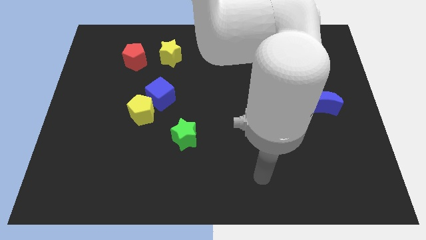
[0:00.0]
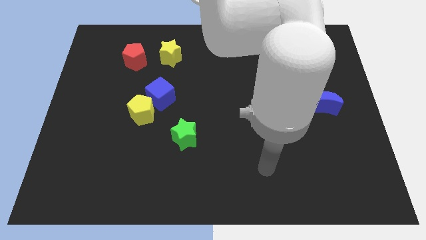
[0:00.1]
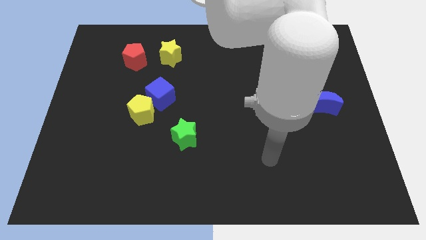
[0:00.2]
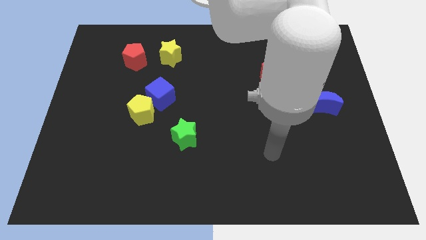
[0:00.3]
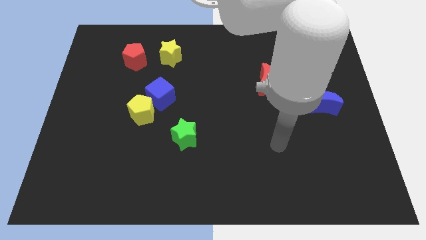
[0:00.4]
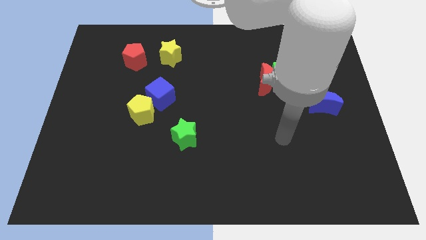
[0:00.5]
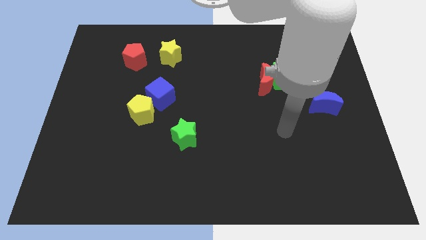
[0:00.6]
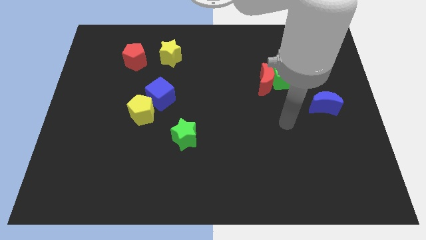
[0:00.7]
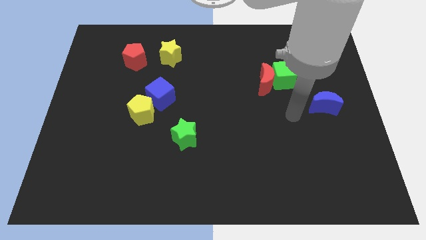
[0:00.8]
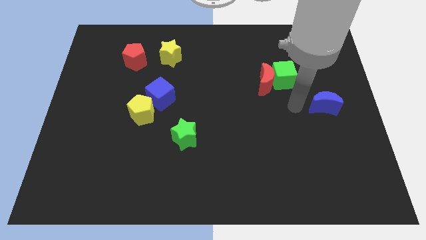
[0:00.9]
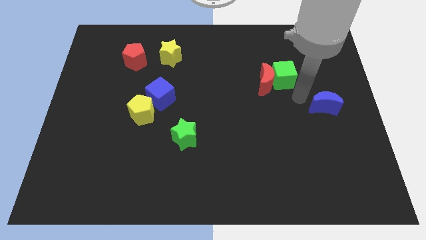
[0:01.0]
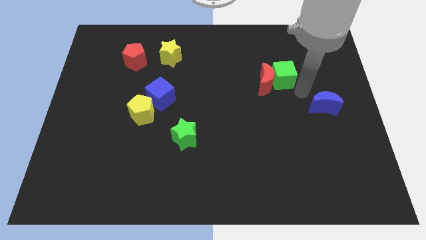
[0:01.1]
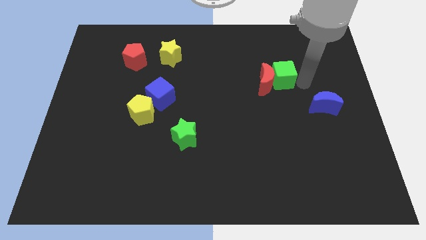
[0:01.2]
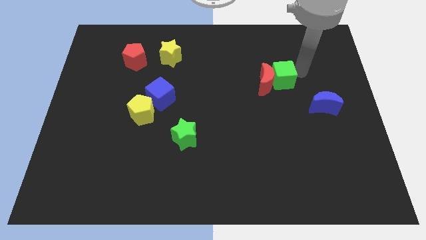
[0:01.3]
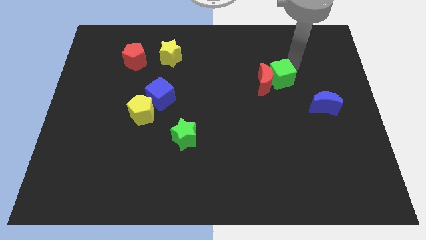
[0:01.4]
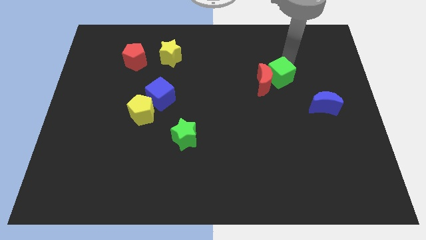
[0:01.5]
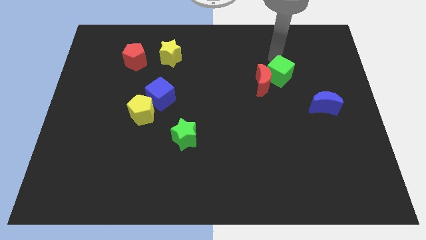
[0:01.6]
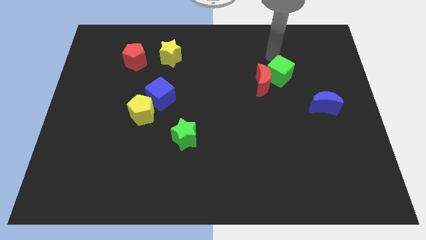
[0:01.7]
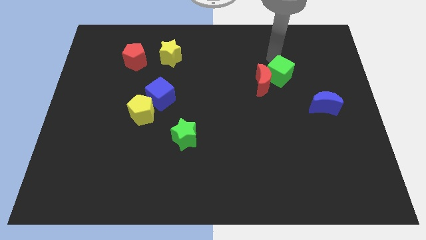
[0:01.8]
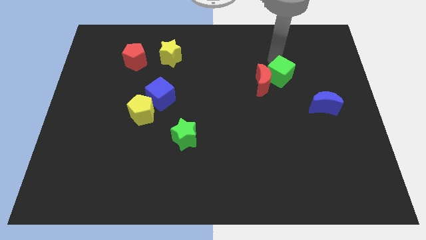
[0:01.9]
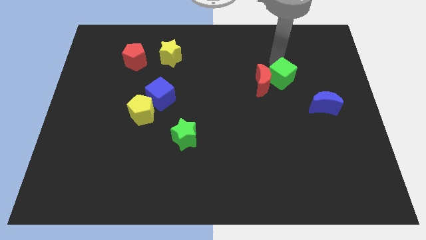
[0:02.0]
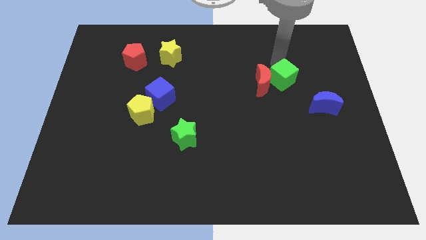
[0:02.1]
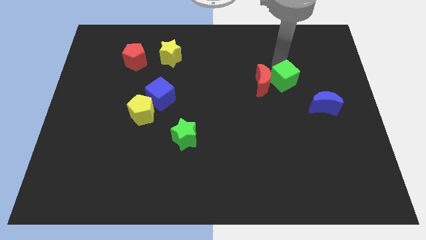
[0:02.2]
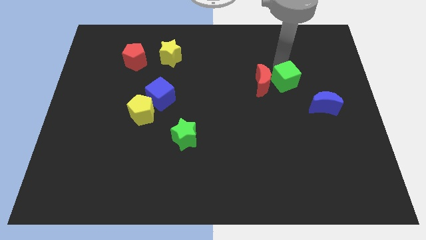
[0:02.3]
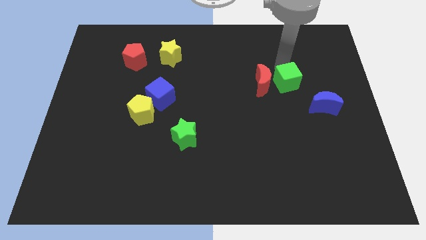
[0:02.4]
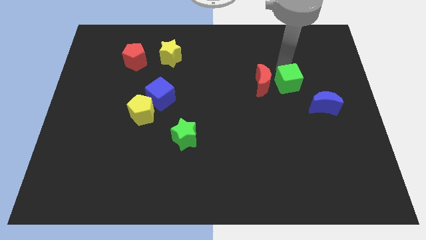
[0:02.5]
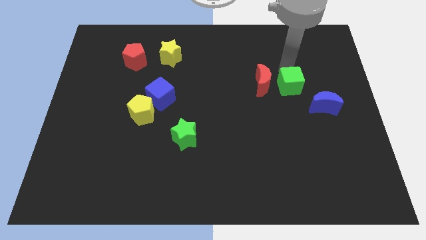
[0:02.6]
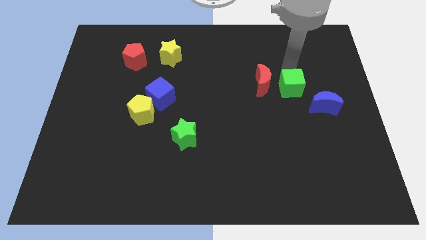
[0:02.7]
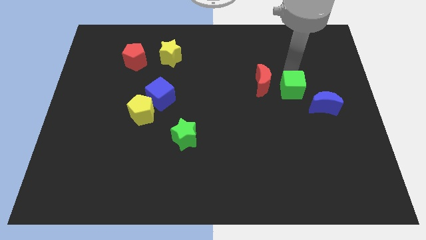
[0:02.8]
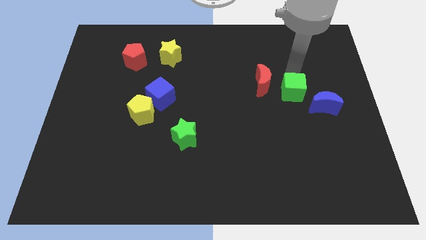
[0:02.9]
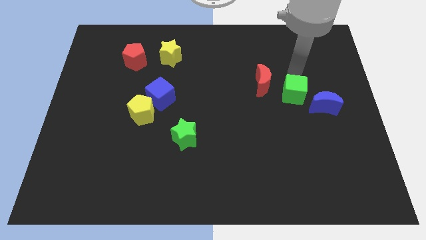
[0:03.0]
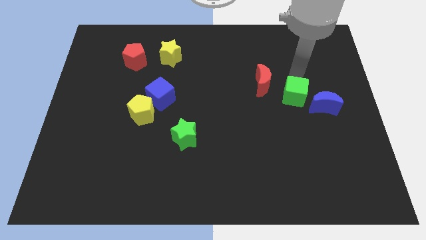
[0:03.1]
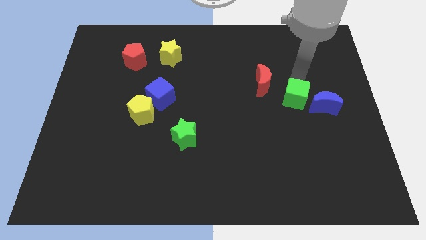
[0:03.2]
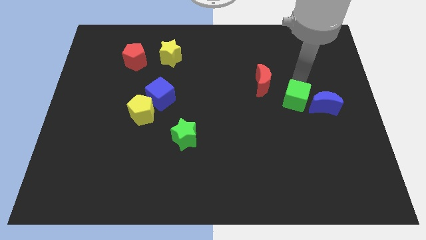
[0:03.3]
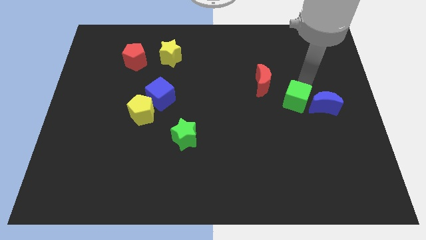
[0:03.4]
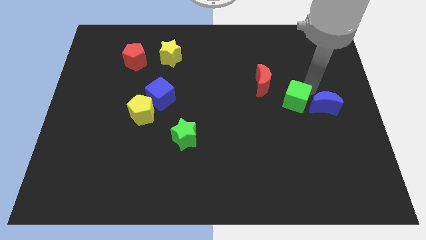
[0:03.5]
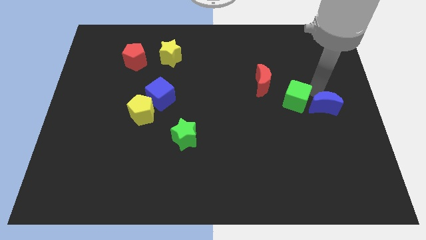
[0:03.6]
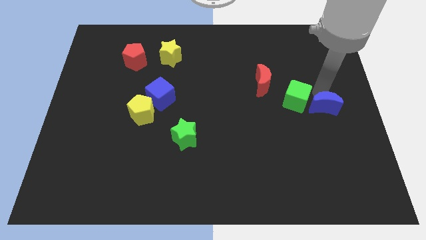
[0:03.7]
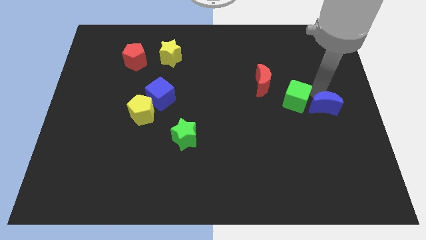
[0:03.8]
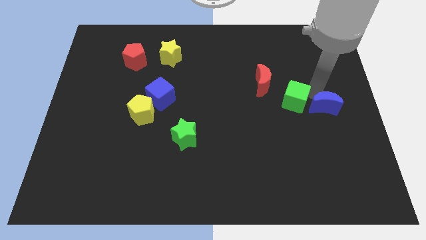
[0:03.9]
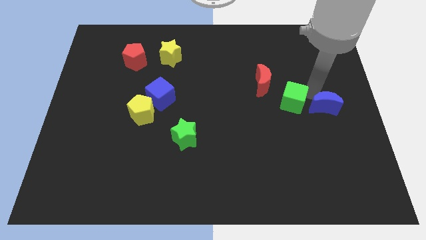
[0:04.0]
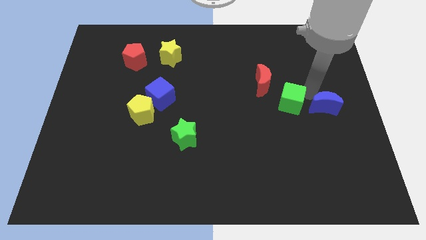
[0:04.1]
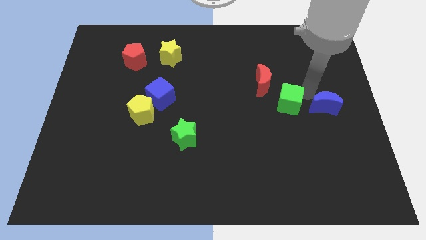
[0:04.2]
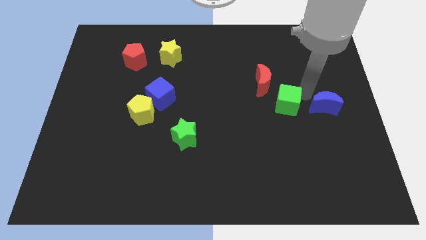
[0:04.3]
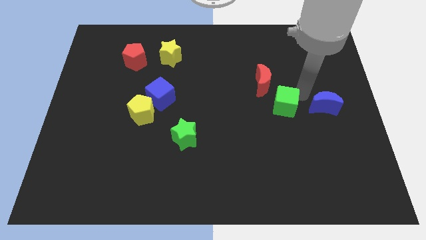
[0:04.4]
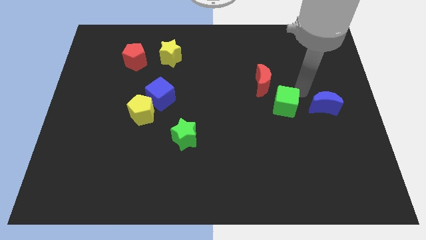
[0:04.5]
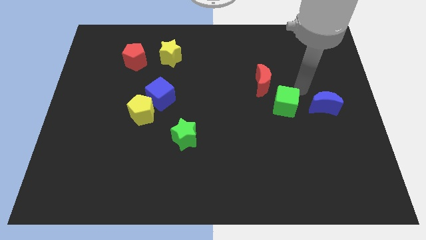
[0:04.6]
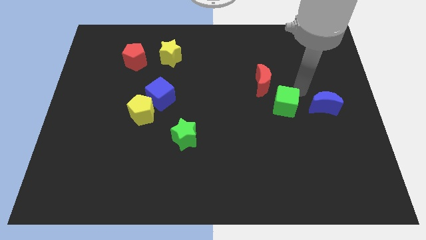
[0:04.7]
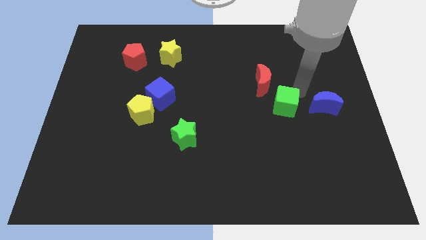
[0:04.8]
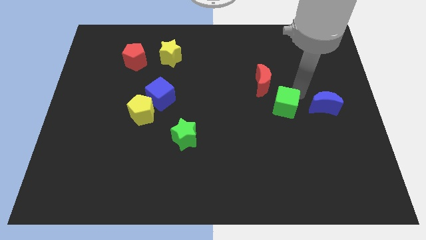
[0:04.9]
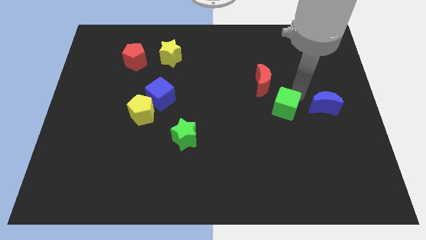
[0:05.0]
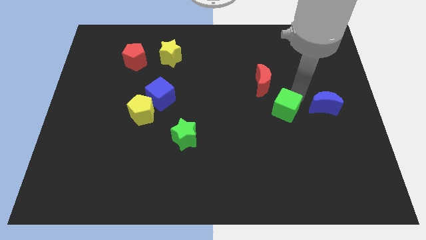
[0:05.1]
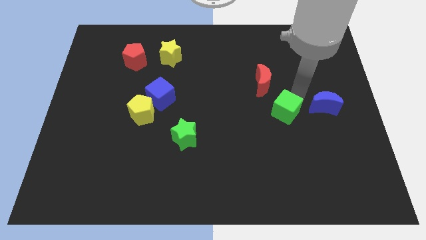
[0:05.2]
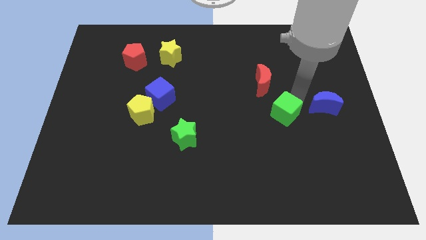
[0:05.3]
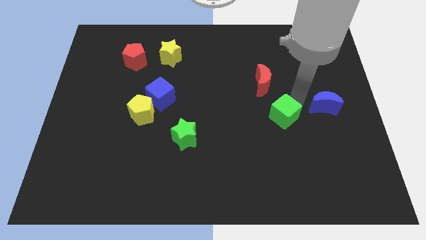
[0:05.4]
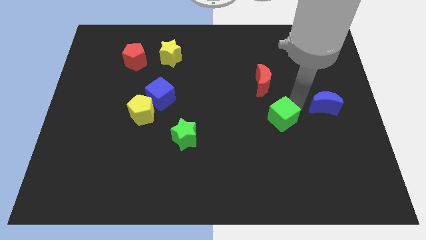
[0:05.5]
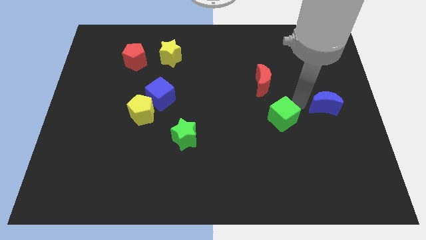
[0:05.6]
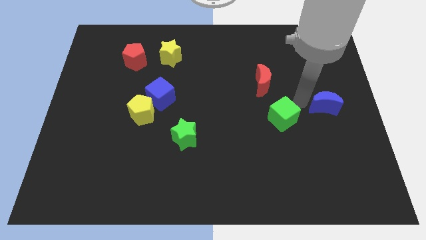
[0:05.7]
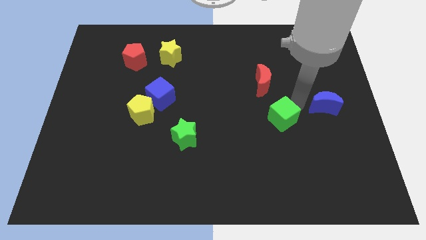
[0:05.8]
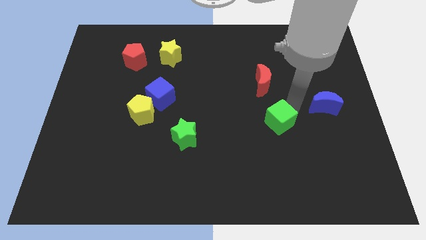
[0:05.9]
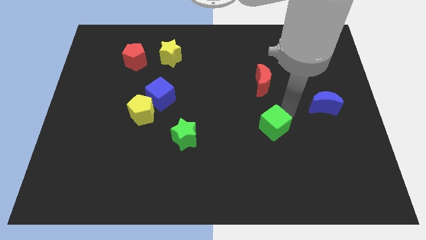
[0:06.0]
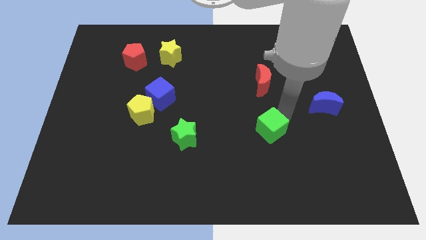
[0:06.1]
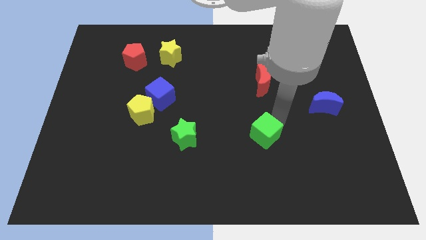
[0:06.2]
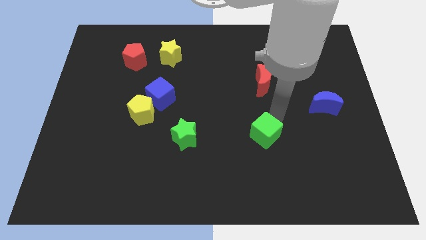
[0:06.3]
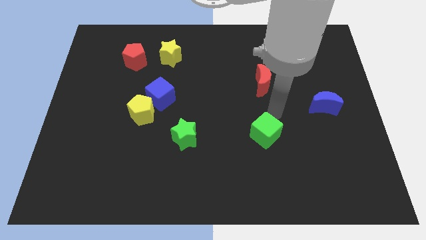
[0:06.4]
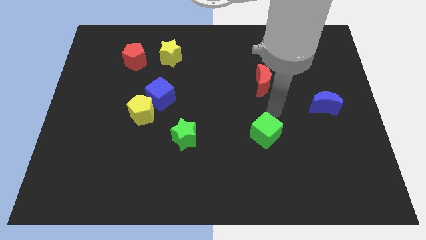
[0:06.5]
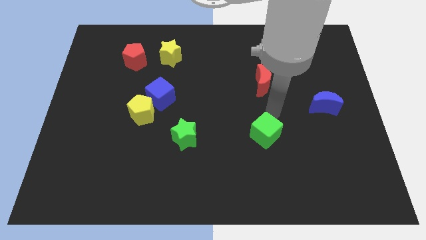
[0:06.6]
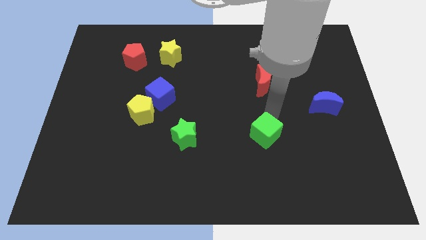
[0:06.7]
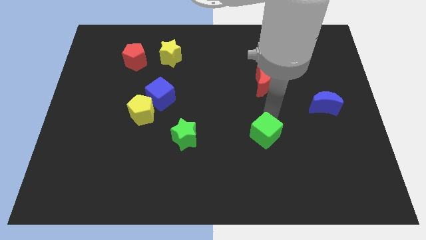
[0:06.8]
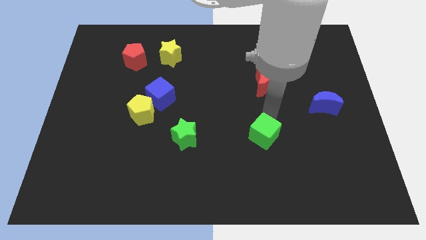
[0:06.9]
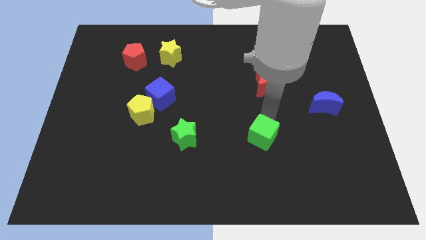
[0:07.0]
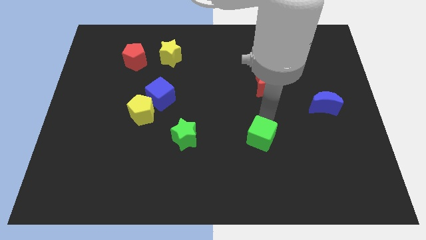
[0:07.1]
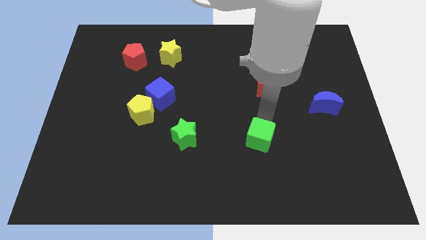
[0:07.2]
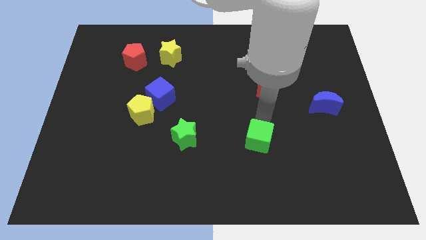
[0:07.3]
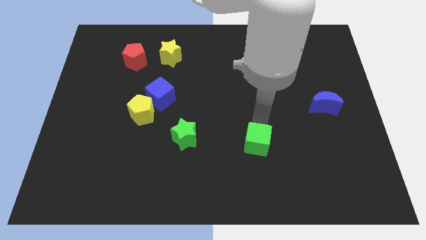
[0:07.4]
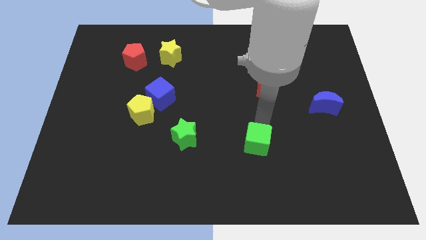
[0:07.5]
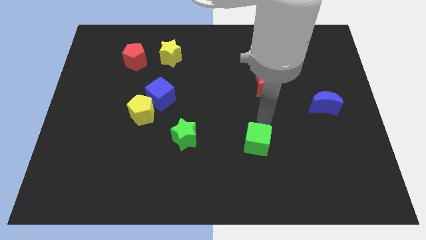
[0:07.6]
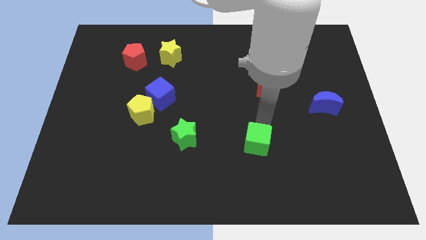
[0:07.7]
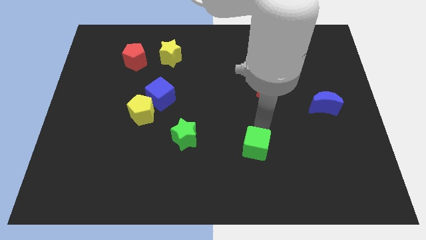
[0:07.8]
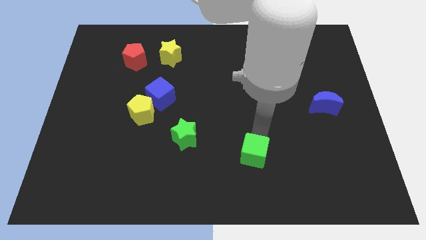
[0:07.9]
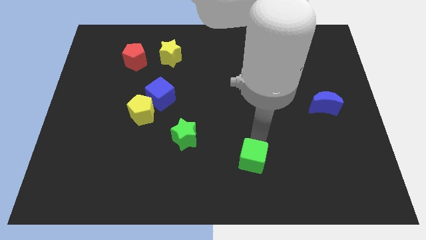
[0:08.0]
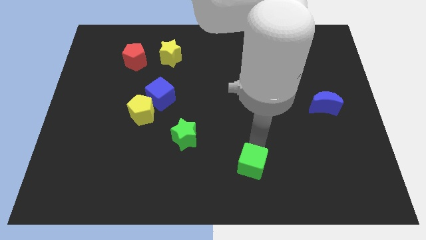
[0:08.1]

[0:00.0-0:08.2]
put the green cube to the bottom side
